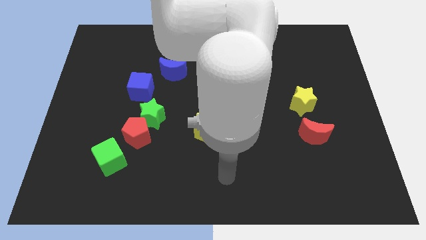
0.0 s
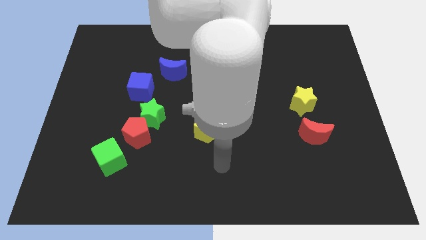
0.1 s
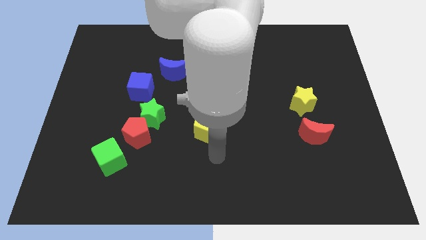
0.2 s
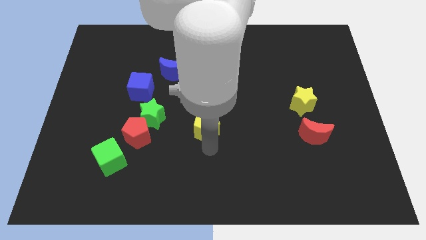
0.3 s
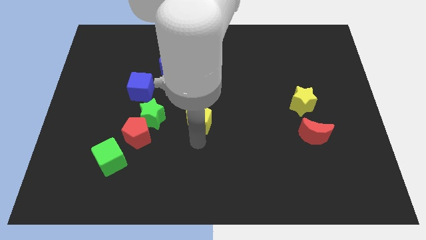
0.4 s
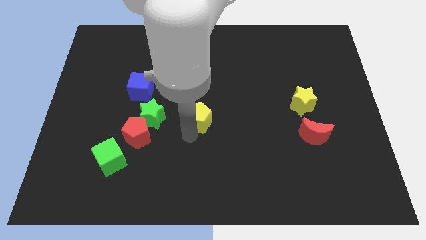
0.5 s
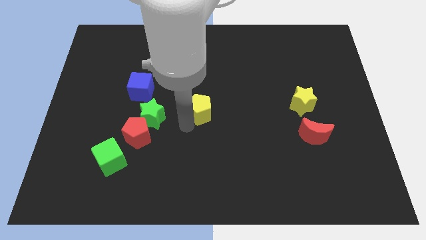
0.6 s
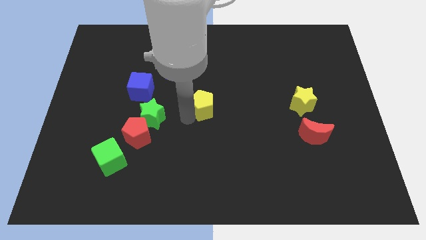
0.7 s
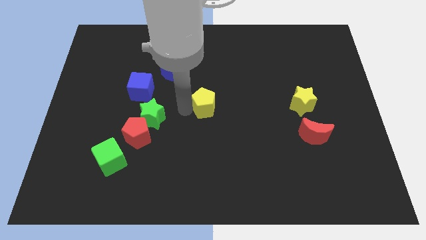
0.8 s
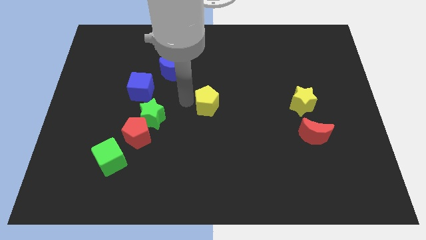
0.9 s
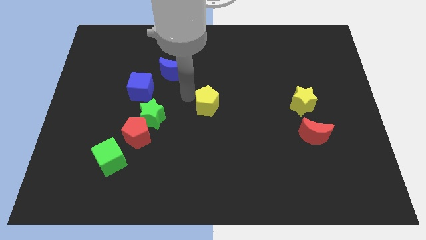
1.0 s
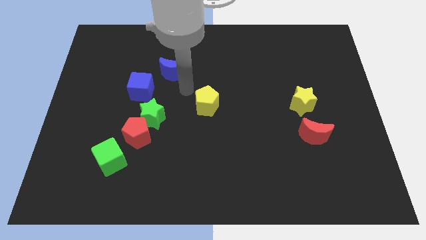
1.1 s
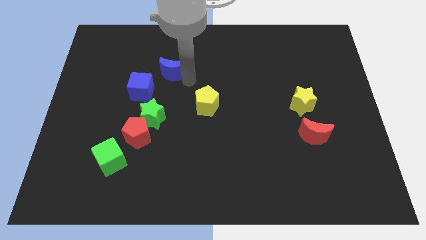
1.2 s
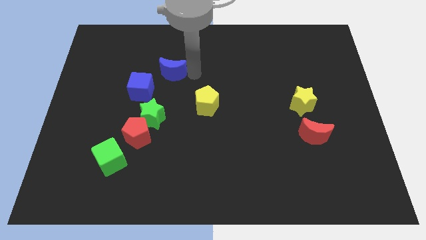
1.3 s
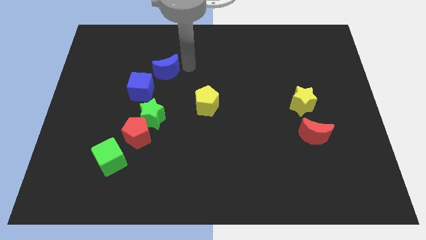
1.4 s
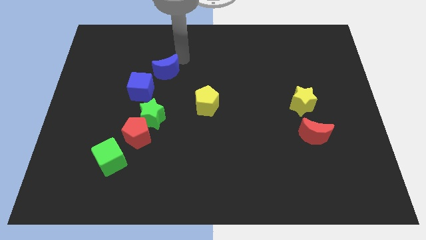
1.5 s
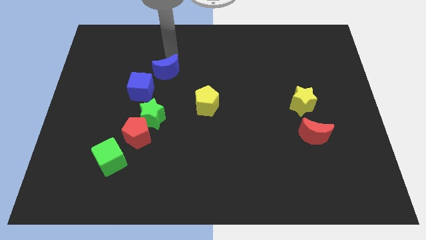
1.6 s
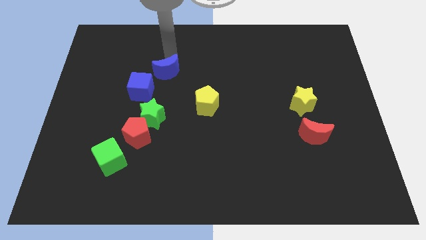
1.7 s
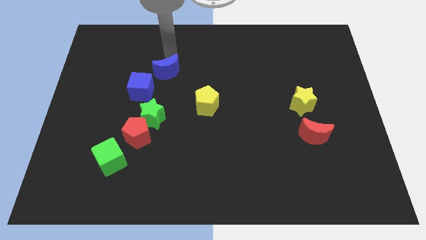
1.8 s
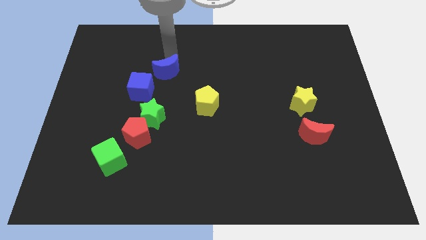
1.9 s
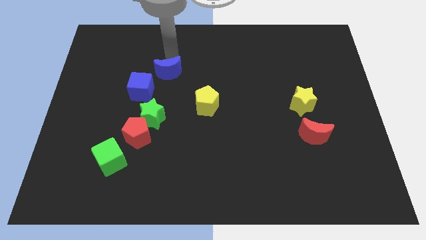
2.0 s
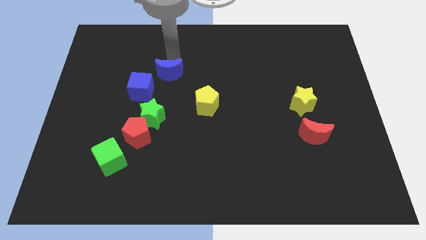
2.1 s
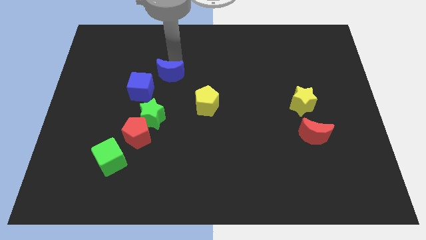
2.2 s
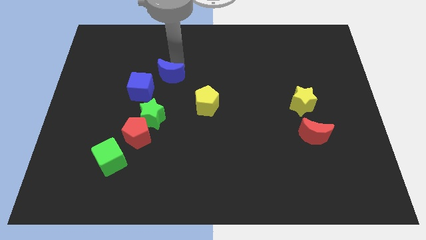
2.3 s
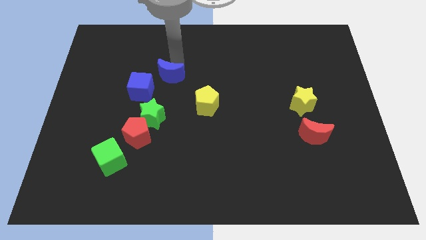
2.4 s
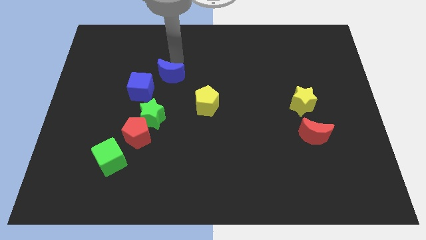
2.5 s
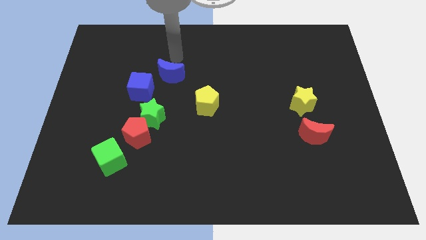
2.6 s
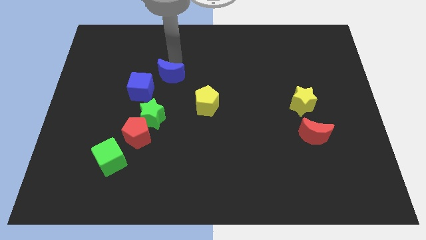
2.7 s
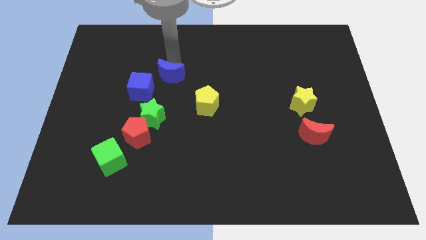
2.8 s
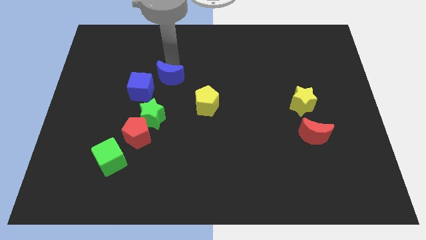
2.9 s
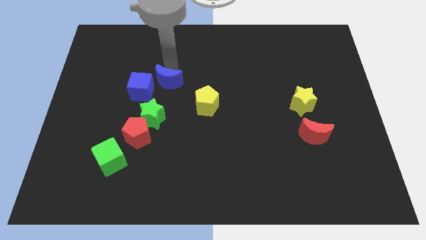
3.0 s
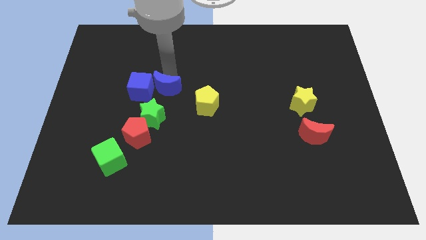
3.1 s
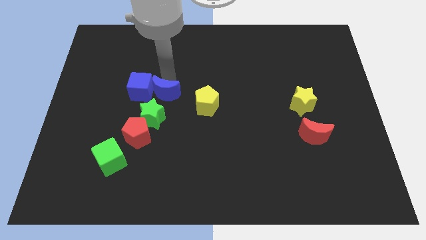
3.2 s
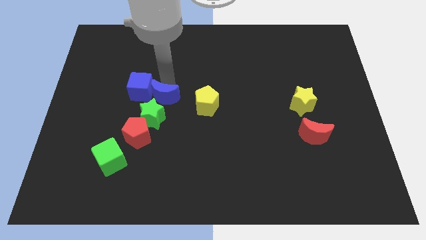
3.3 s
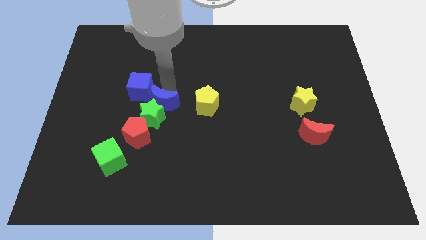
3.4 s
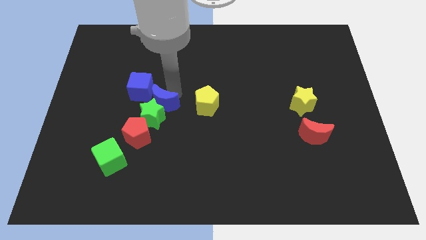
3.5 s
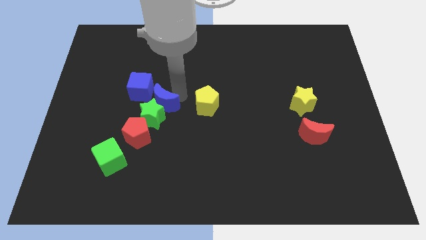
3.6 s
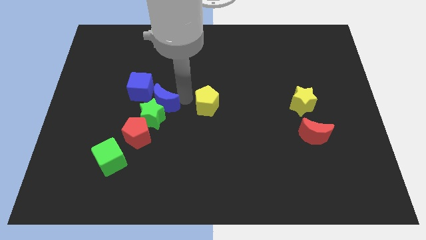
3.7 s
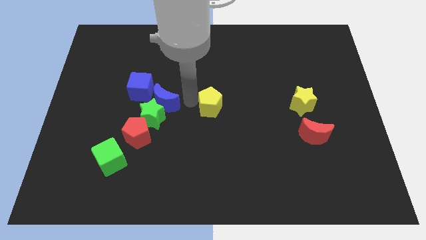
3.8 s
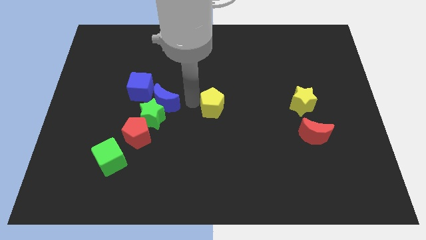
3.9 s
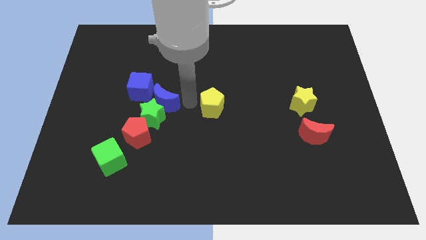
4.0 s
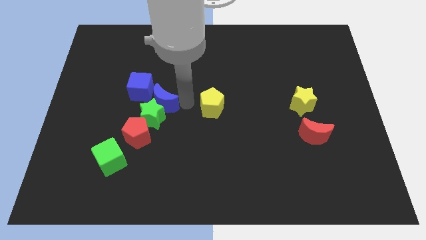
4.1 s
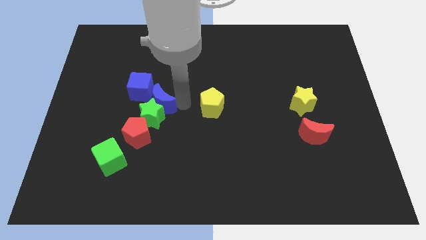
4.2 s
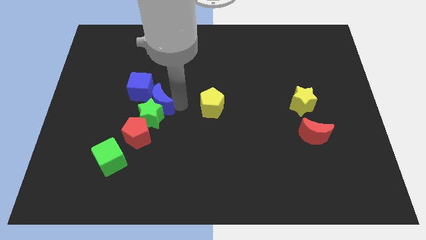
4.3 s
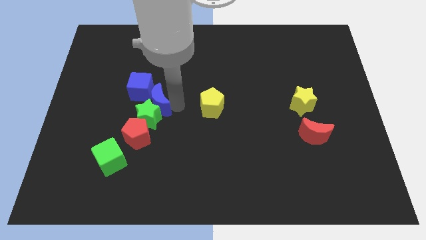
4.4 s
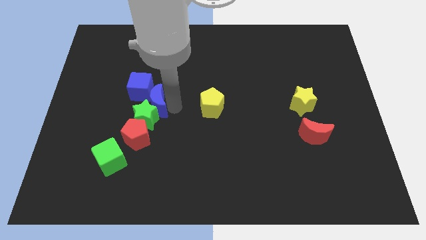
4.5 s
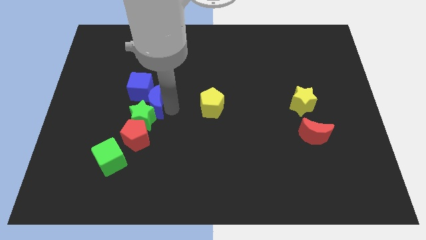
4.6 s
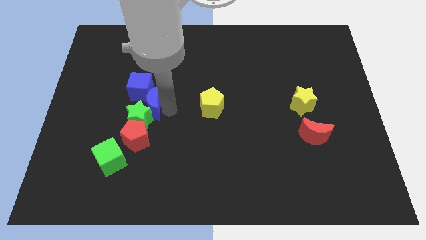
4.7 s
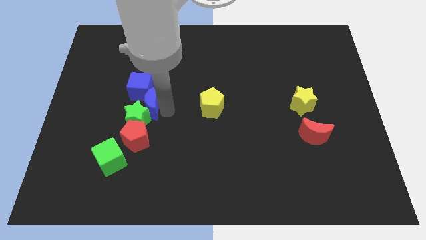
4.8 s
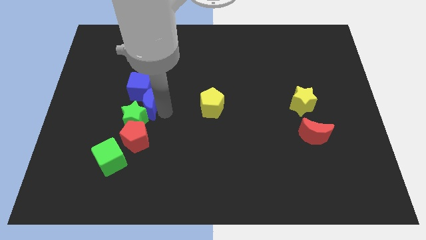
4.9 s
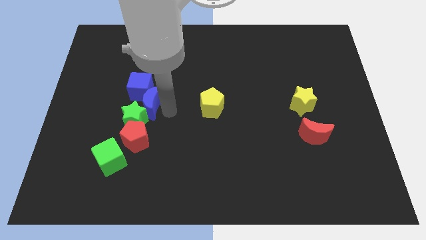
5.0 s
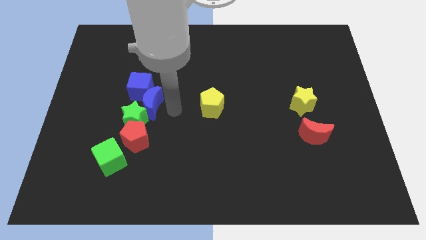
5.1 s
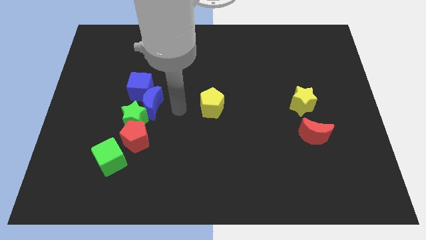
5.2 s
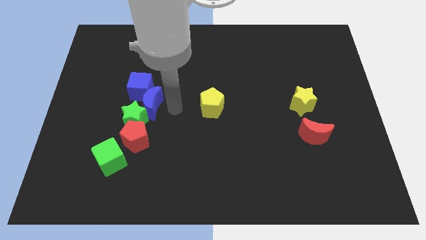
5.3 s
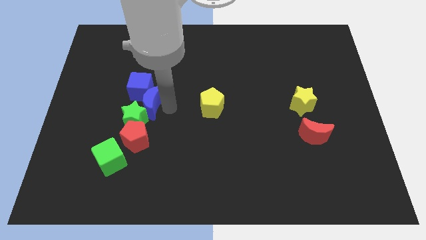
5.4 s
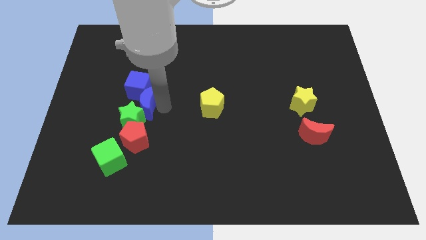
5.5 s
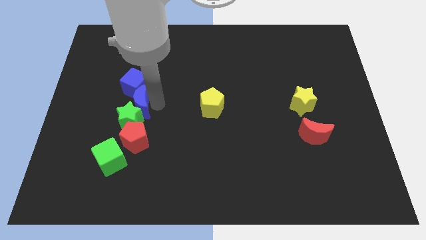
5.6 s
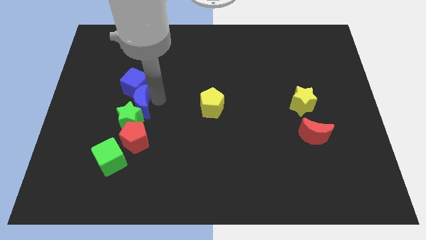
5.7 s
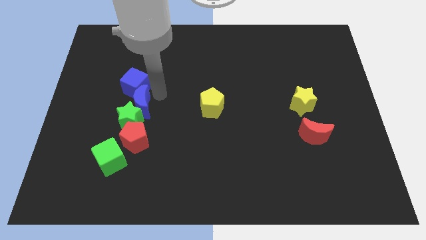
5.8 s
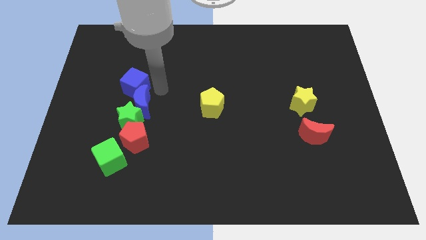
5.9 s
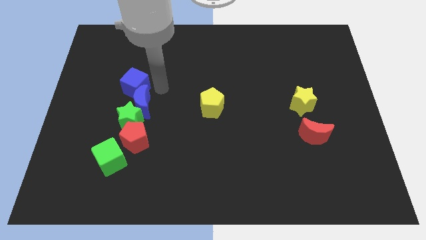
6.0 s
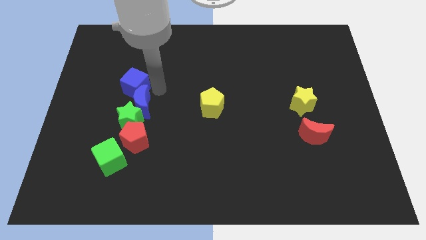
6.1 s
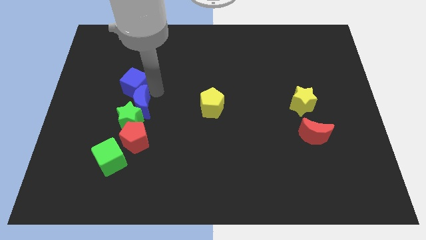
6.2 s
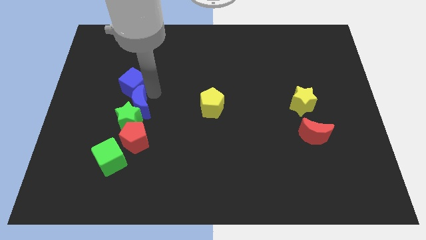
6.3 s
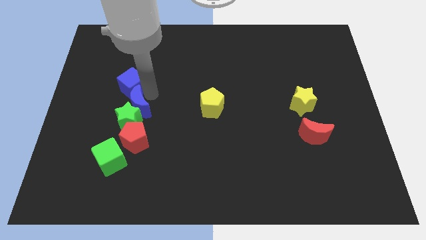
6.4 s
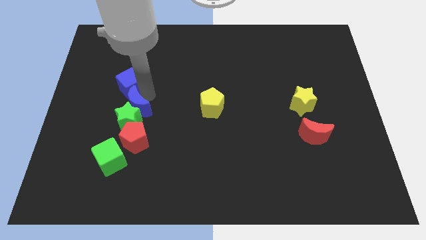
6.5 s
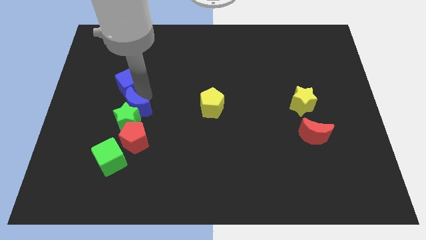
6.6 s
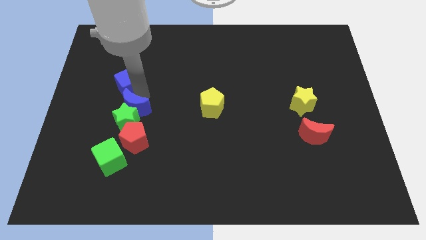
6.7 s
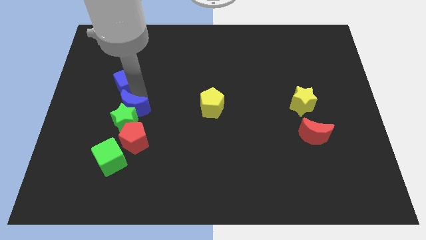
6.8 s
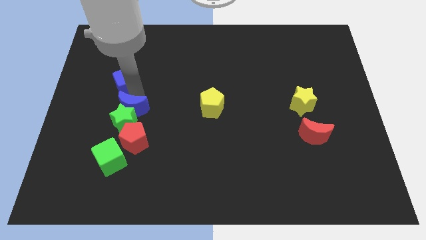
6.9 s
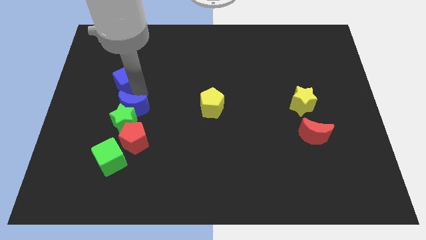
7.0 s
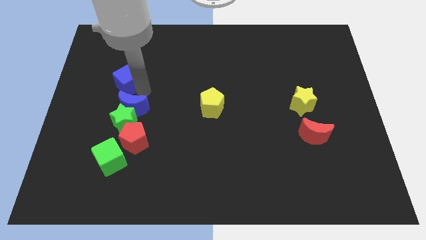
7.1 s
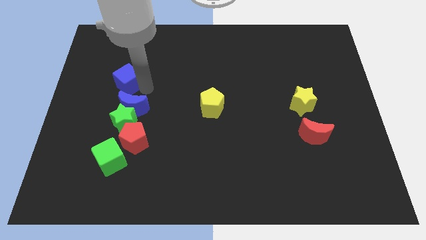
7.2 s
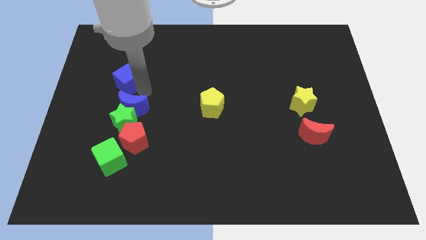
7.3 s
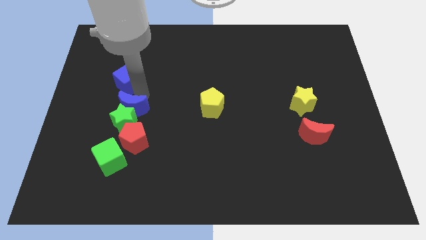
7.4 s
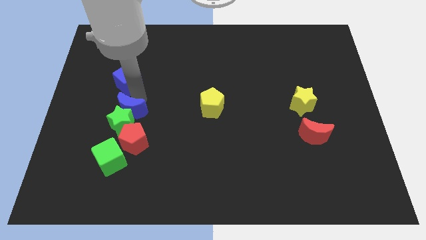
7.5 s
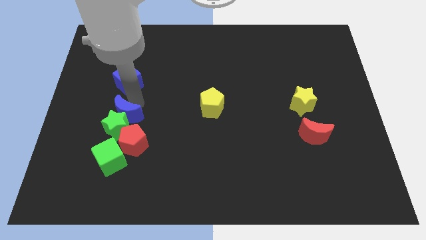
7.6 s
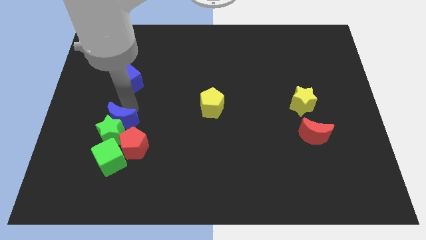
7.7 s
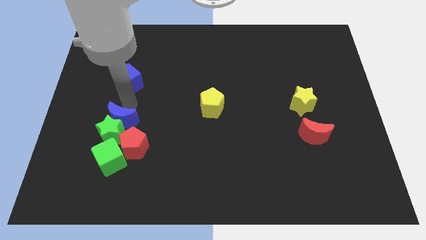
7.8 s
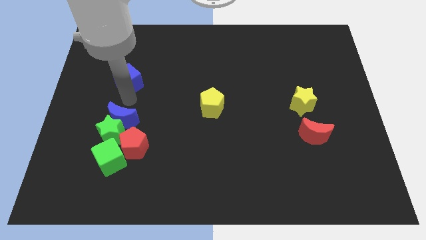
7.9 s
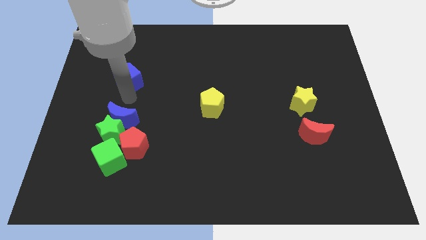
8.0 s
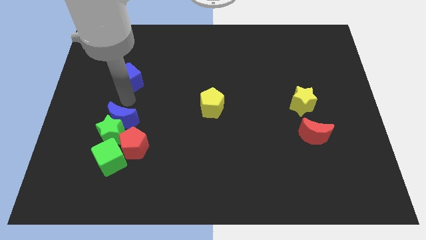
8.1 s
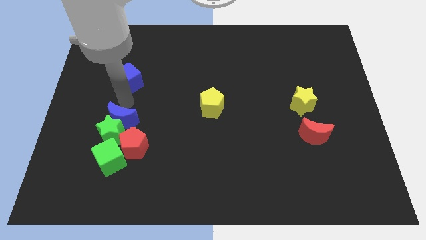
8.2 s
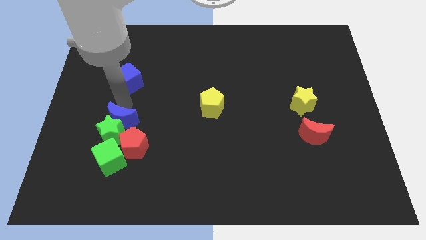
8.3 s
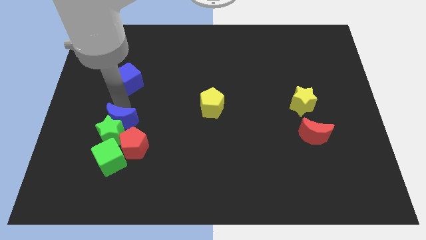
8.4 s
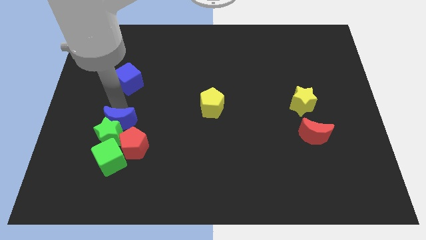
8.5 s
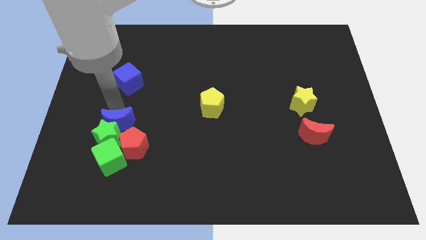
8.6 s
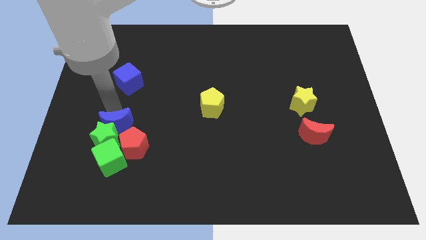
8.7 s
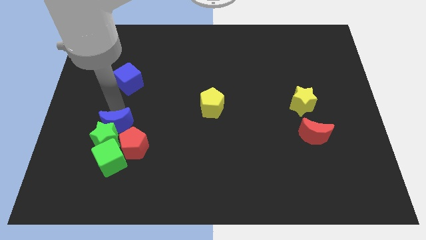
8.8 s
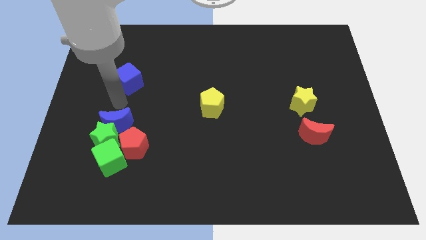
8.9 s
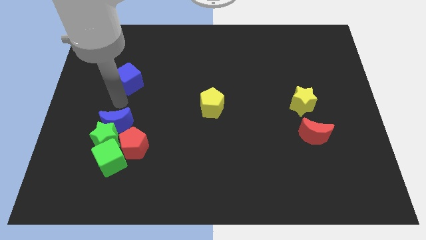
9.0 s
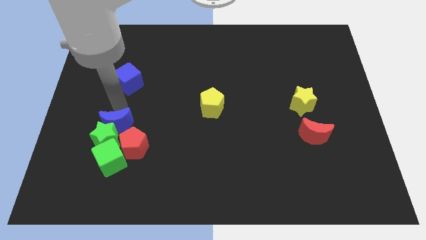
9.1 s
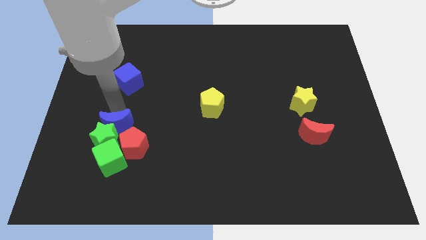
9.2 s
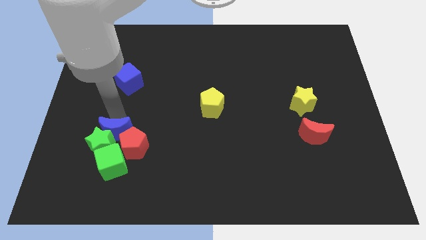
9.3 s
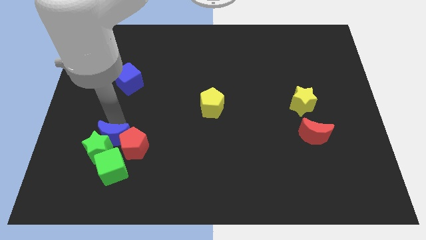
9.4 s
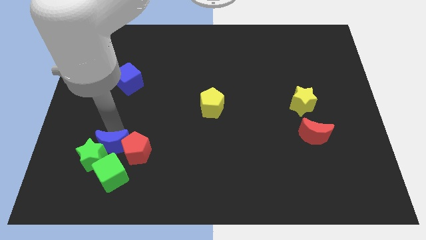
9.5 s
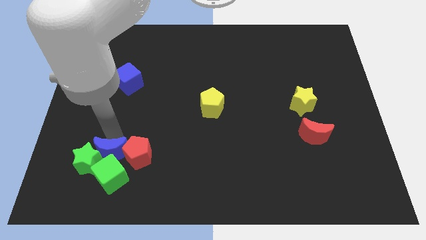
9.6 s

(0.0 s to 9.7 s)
push the blue moon next to the green cube
